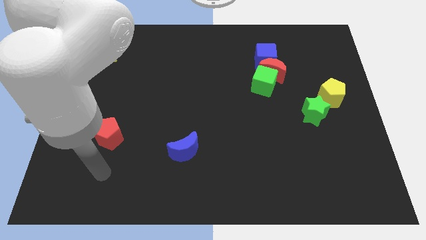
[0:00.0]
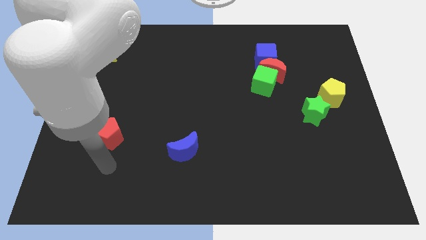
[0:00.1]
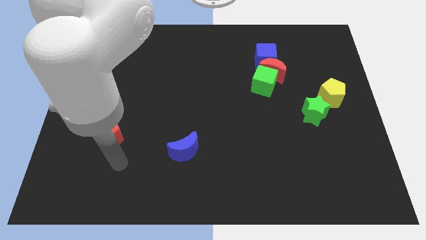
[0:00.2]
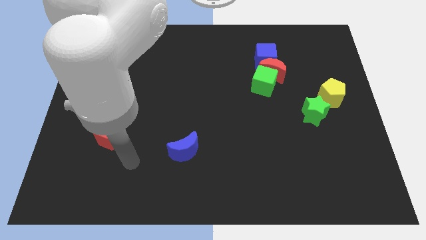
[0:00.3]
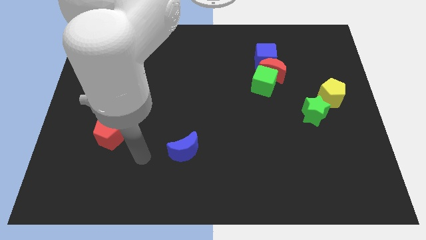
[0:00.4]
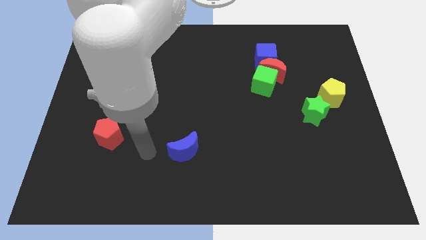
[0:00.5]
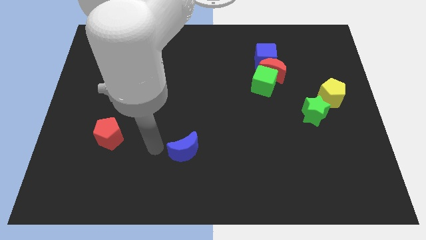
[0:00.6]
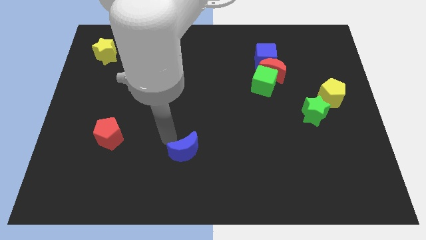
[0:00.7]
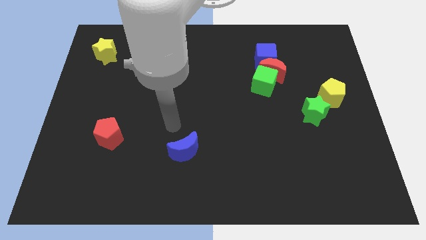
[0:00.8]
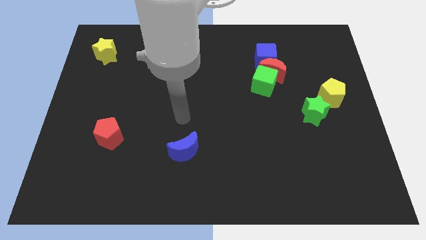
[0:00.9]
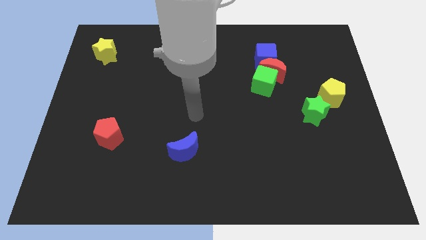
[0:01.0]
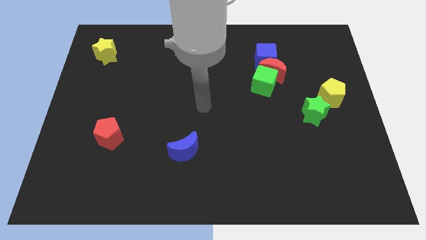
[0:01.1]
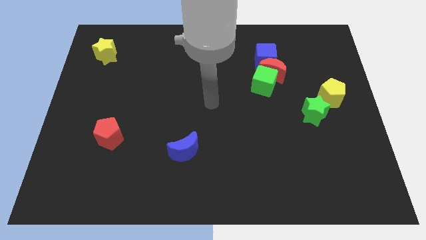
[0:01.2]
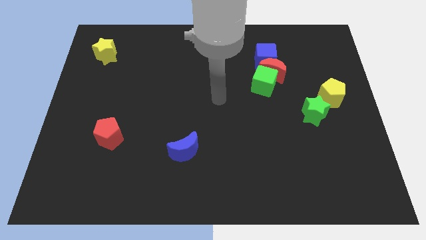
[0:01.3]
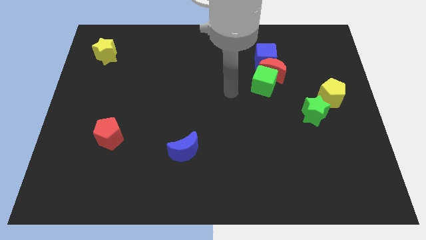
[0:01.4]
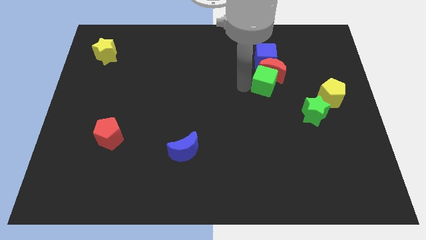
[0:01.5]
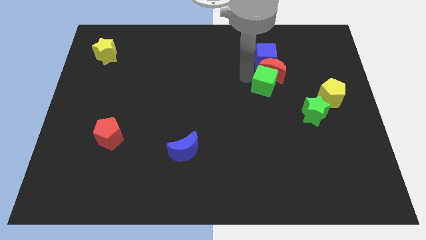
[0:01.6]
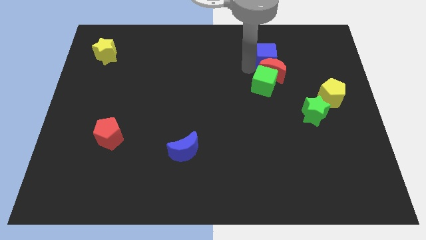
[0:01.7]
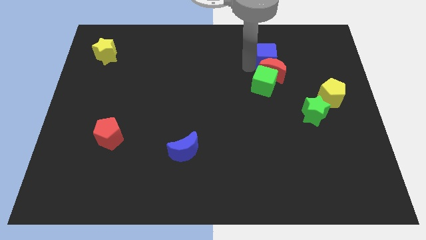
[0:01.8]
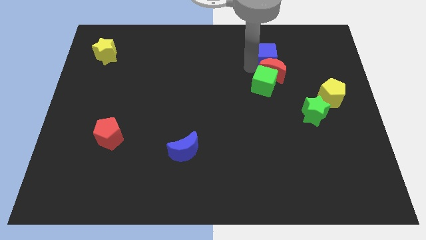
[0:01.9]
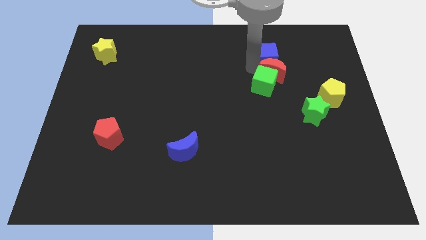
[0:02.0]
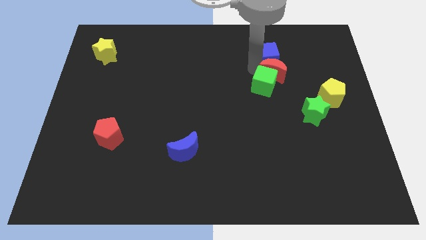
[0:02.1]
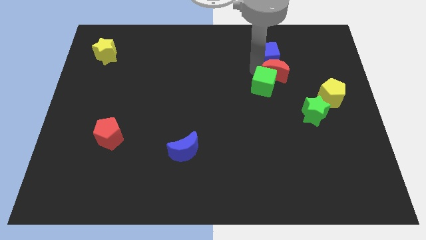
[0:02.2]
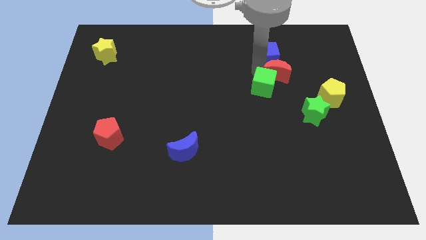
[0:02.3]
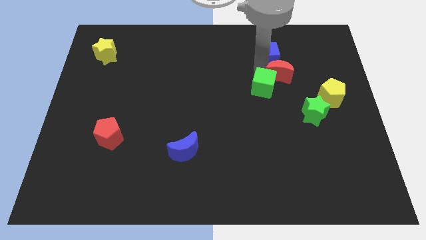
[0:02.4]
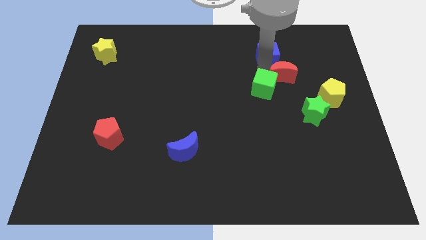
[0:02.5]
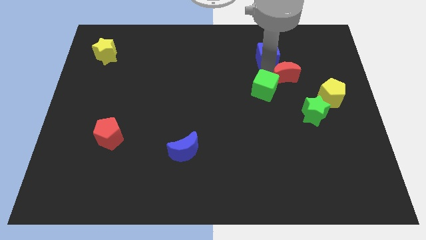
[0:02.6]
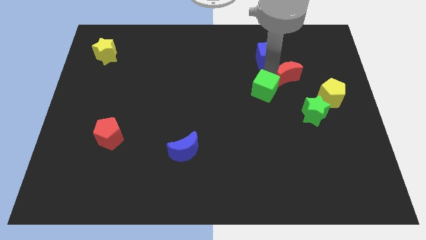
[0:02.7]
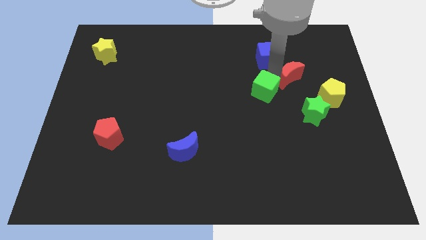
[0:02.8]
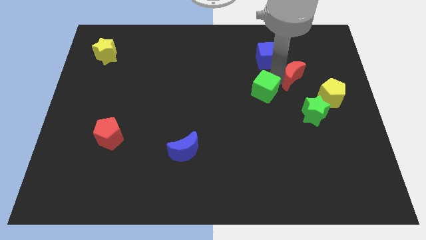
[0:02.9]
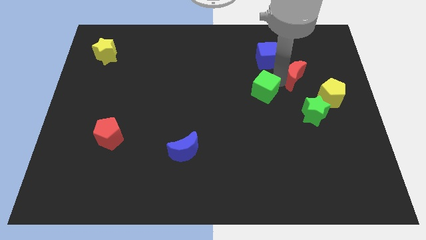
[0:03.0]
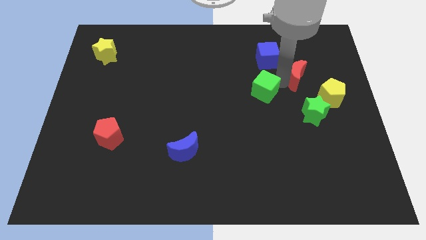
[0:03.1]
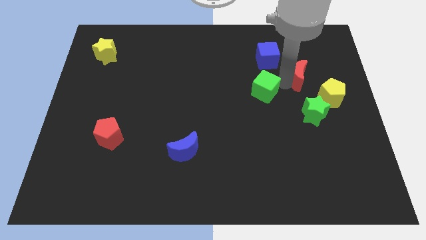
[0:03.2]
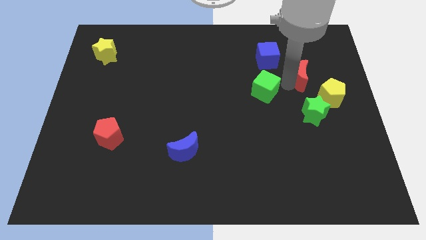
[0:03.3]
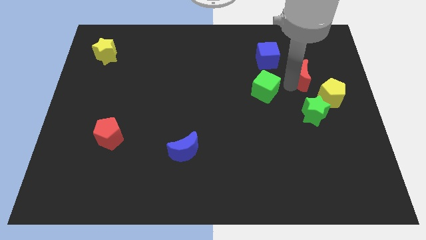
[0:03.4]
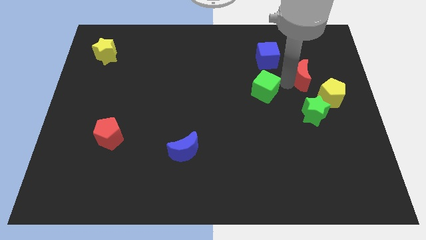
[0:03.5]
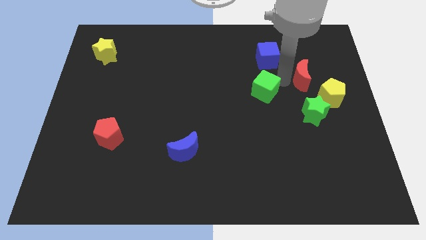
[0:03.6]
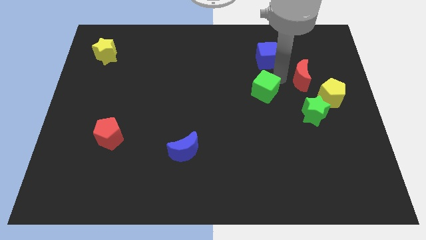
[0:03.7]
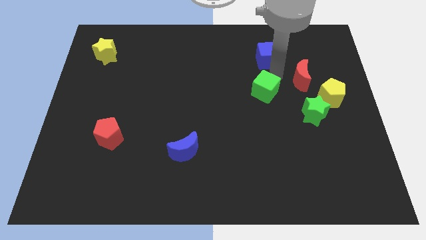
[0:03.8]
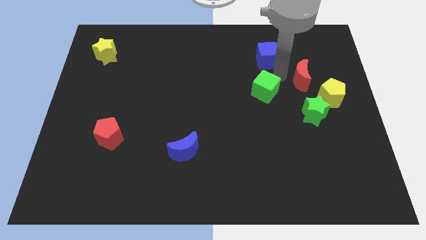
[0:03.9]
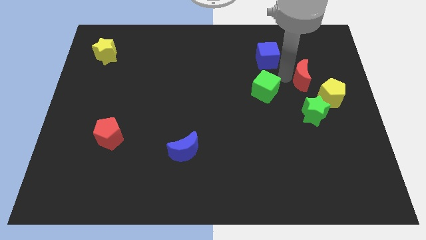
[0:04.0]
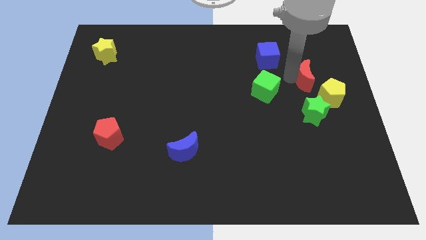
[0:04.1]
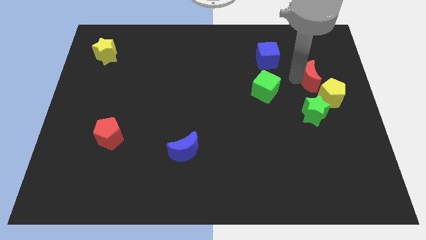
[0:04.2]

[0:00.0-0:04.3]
separate the red moon from the green cube and blue cube

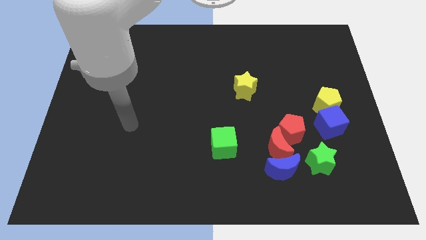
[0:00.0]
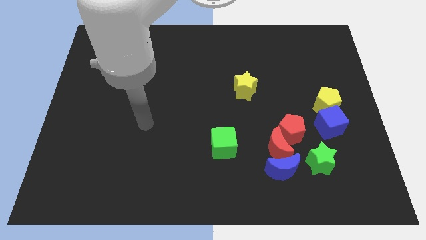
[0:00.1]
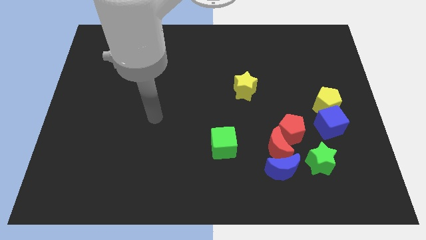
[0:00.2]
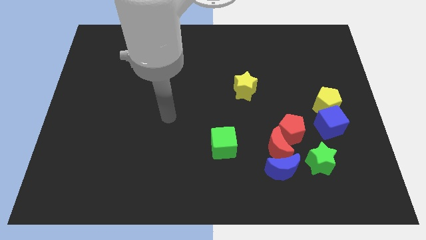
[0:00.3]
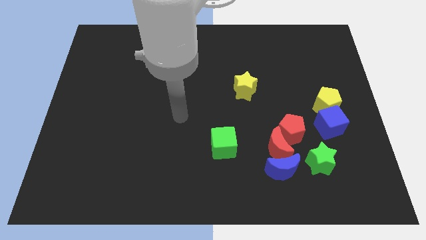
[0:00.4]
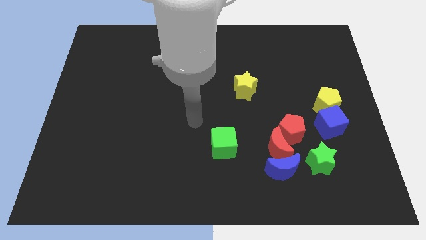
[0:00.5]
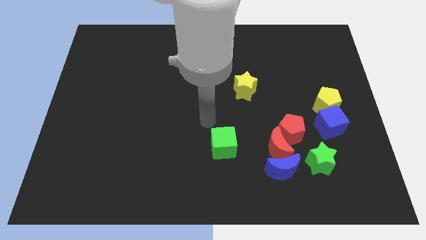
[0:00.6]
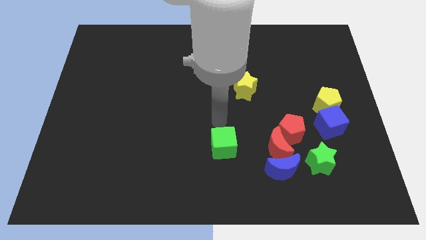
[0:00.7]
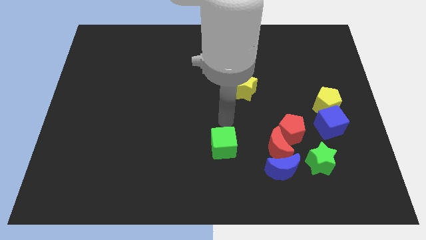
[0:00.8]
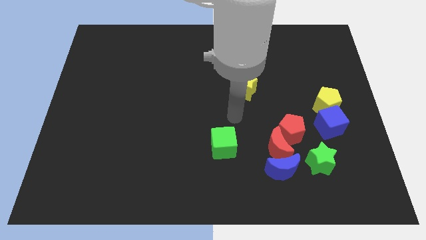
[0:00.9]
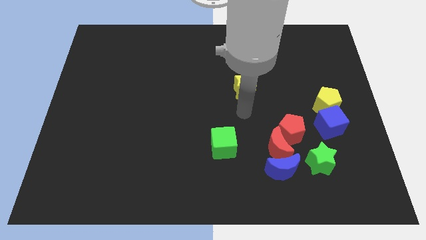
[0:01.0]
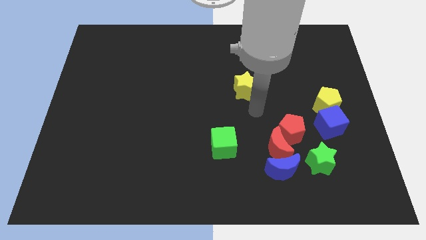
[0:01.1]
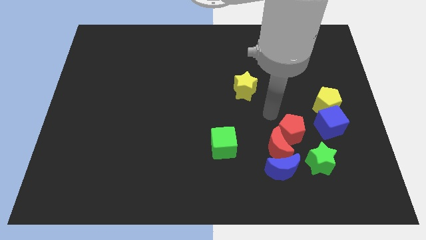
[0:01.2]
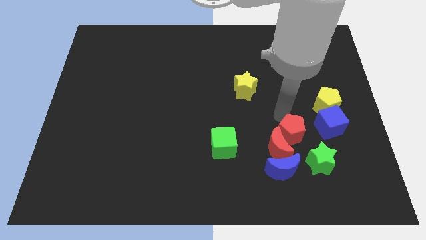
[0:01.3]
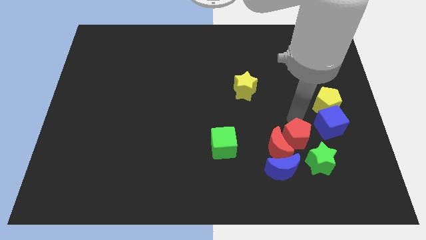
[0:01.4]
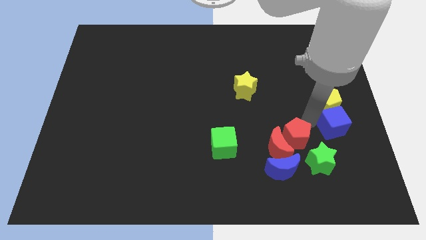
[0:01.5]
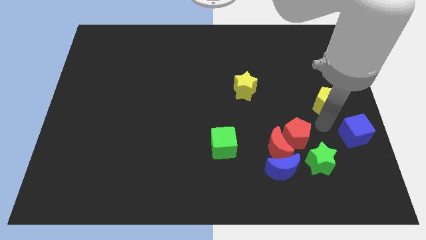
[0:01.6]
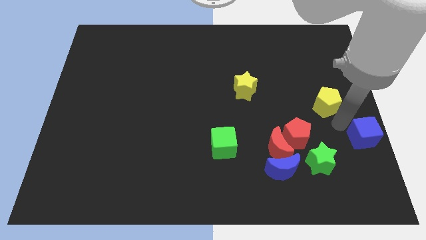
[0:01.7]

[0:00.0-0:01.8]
pull the yellow pentagon apart from the blue cube

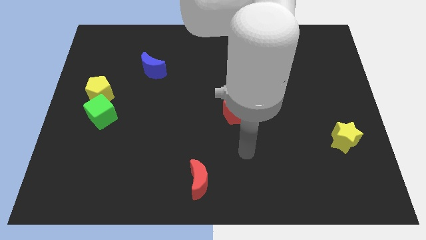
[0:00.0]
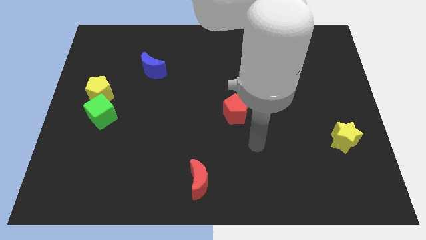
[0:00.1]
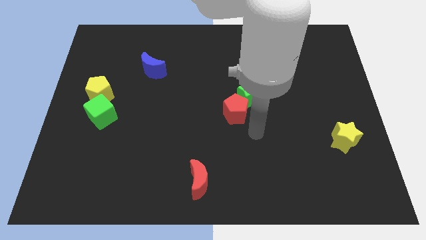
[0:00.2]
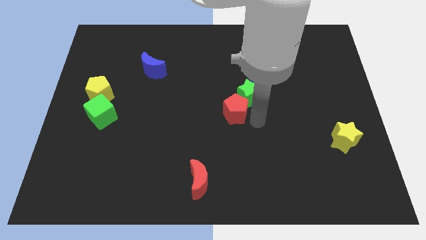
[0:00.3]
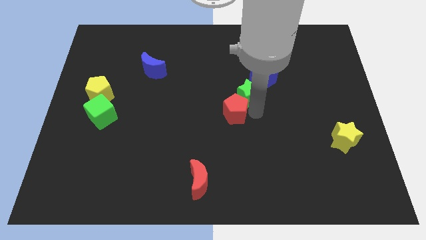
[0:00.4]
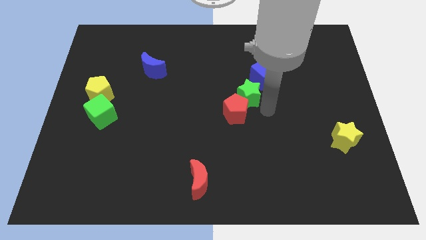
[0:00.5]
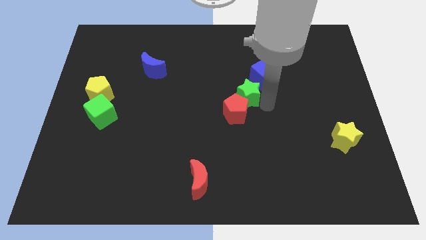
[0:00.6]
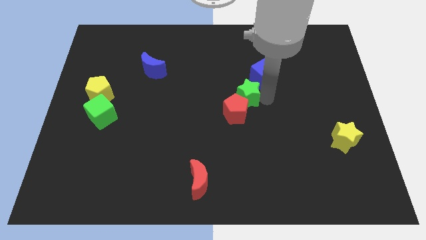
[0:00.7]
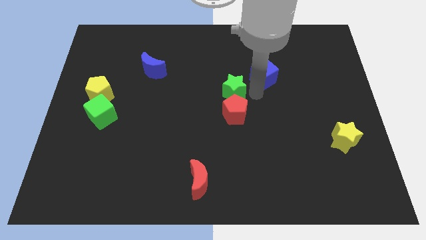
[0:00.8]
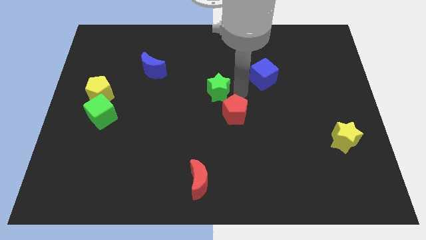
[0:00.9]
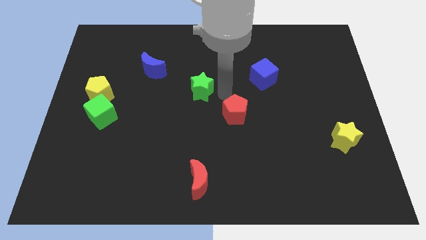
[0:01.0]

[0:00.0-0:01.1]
pull the red pentagon apart from the green star

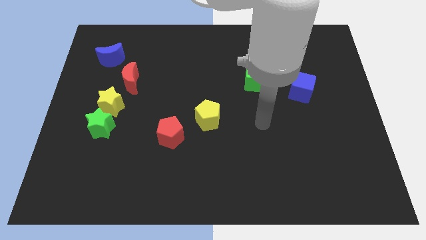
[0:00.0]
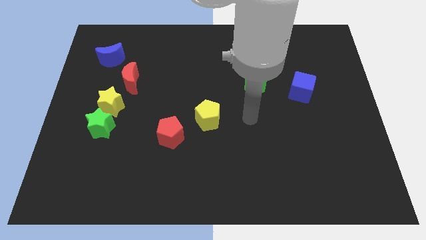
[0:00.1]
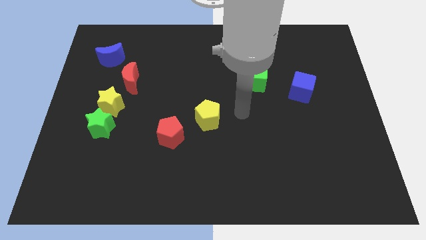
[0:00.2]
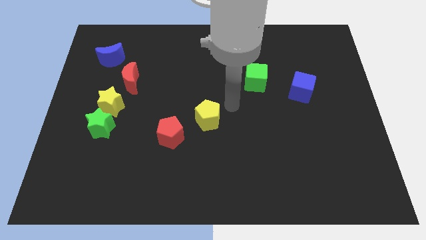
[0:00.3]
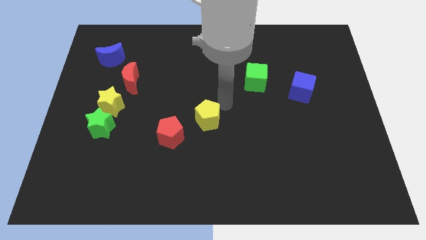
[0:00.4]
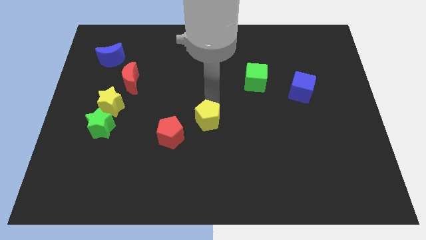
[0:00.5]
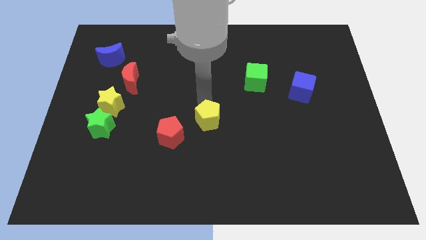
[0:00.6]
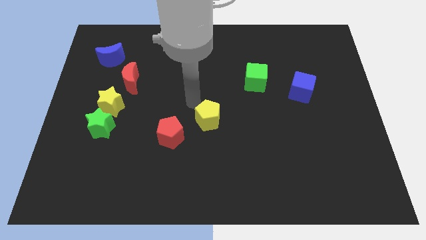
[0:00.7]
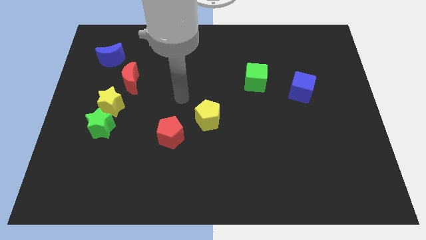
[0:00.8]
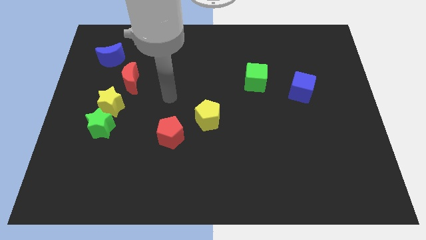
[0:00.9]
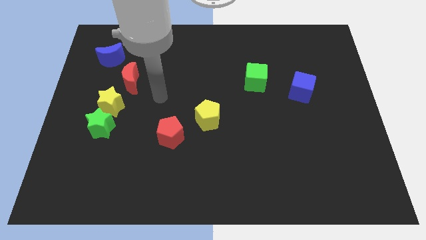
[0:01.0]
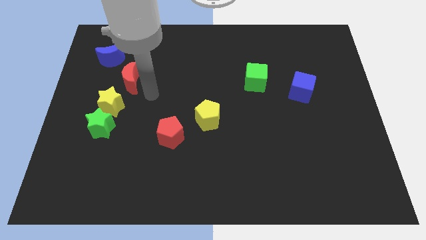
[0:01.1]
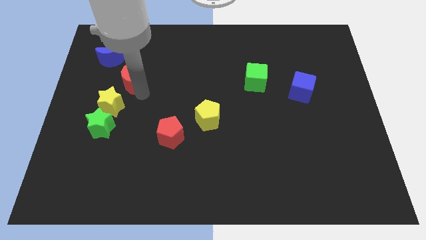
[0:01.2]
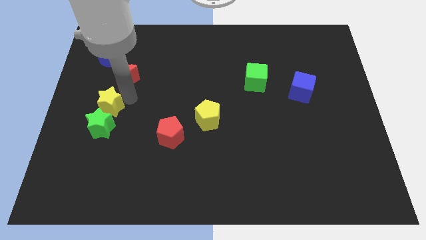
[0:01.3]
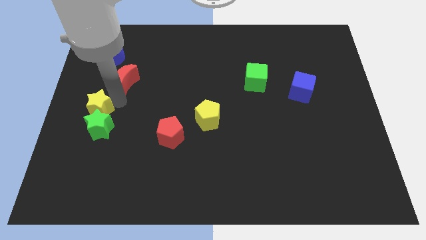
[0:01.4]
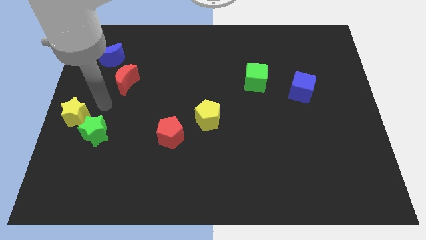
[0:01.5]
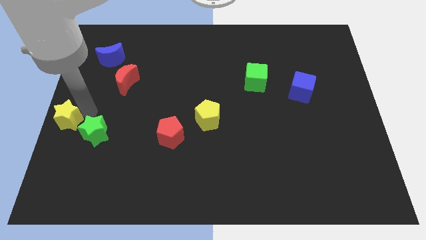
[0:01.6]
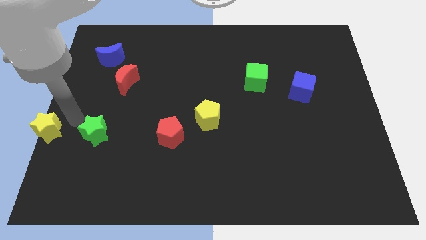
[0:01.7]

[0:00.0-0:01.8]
pull the green star apart from the yellow star

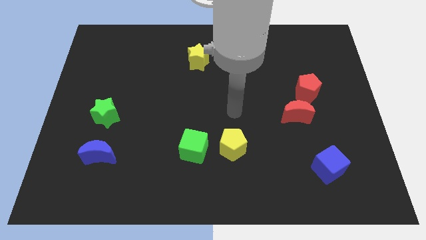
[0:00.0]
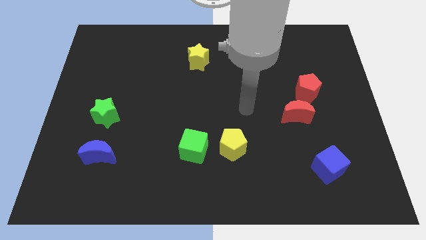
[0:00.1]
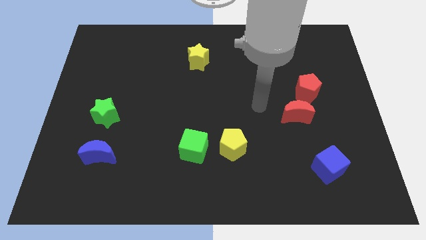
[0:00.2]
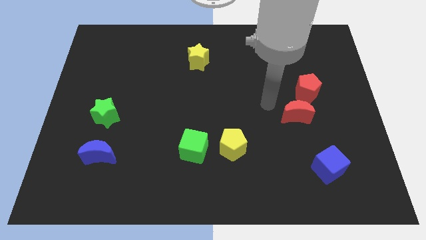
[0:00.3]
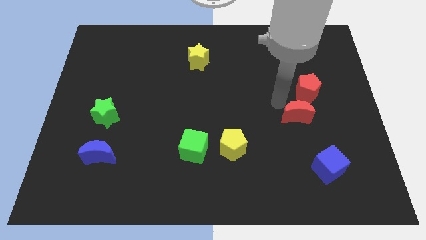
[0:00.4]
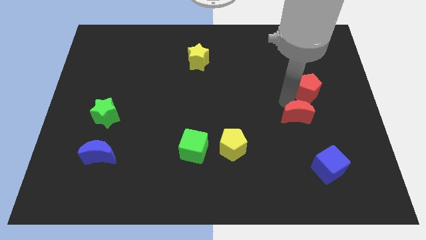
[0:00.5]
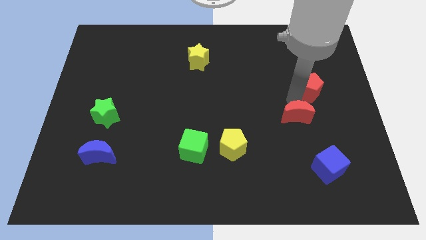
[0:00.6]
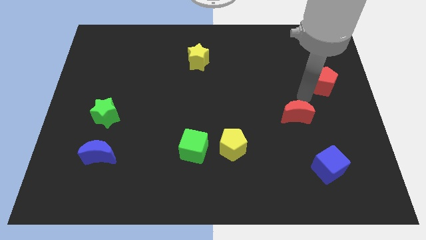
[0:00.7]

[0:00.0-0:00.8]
separate the red moon from the red pentagon
